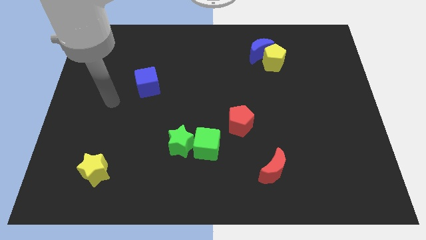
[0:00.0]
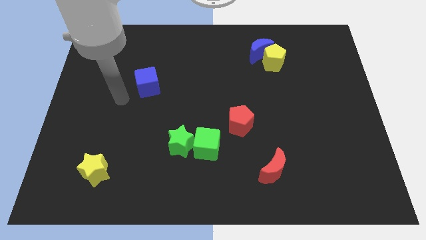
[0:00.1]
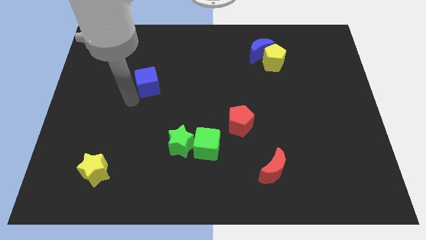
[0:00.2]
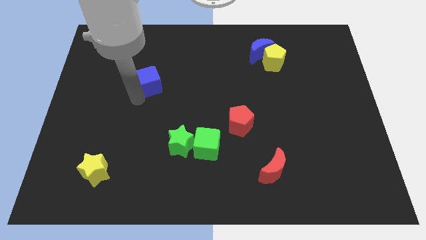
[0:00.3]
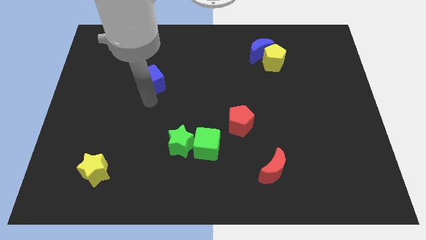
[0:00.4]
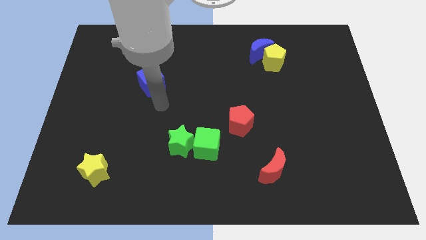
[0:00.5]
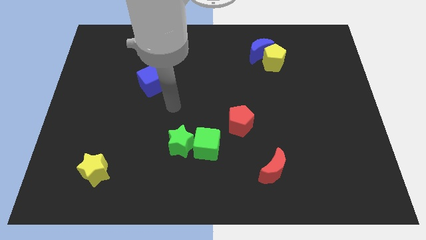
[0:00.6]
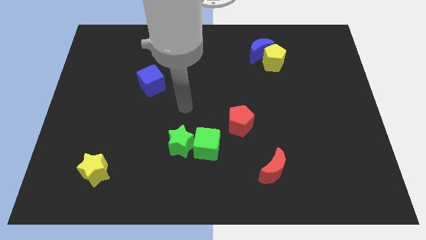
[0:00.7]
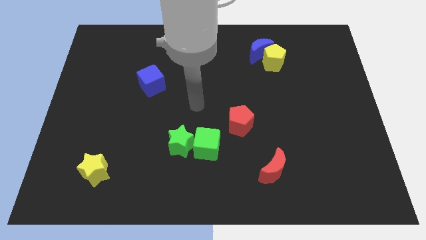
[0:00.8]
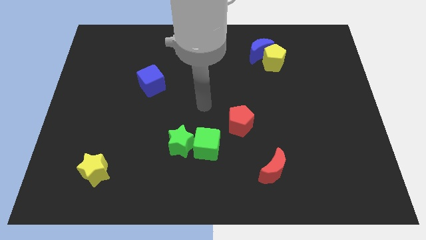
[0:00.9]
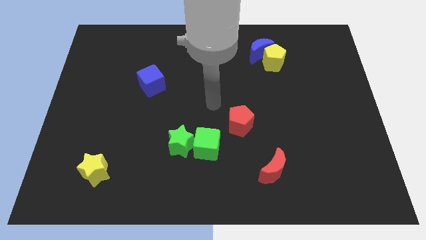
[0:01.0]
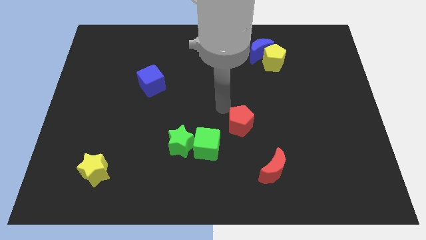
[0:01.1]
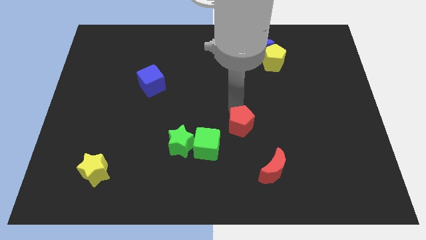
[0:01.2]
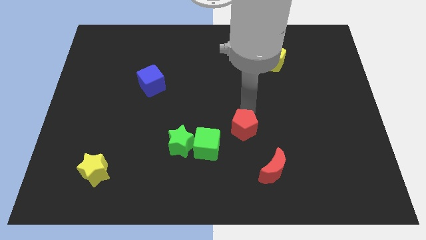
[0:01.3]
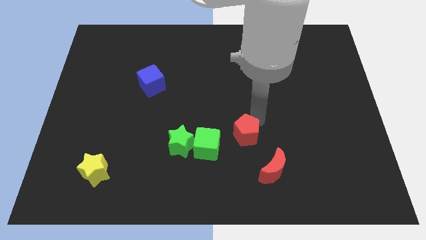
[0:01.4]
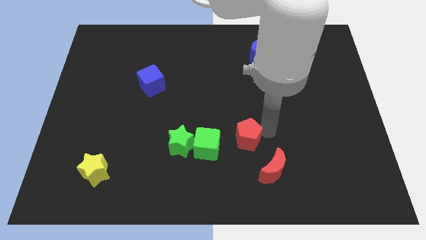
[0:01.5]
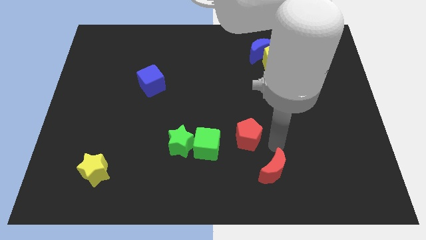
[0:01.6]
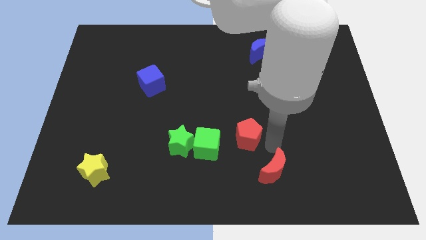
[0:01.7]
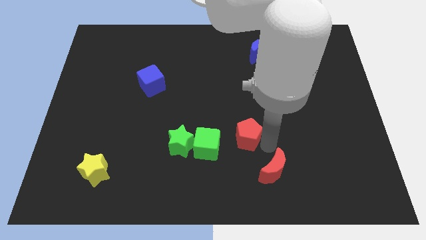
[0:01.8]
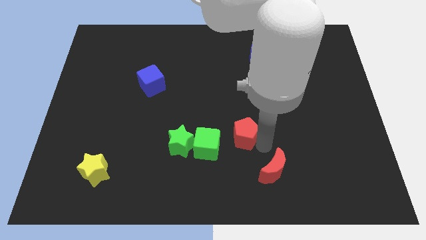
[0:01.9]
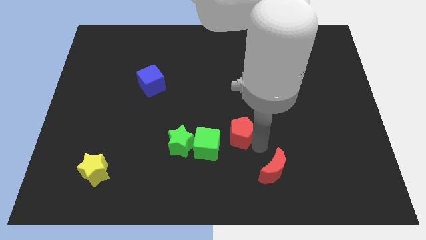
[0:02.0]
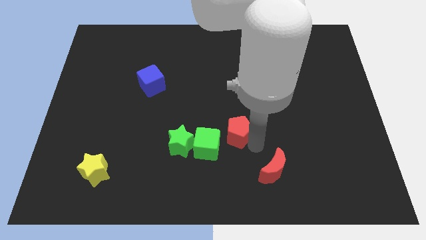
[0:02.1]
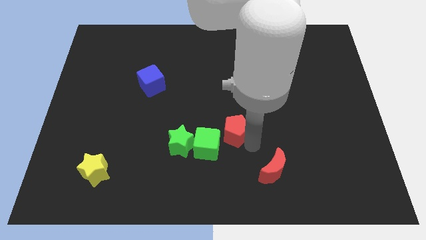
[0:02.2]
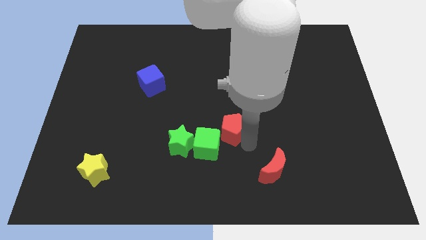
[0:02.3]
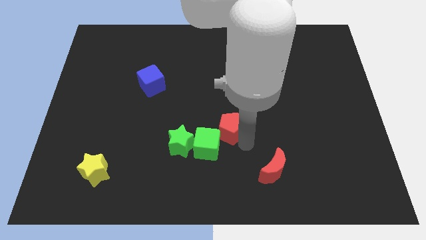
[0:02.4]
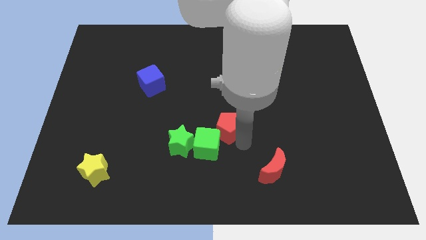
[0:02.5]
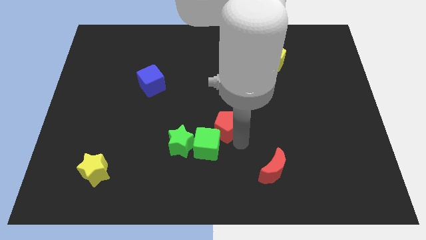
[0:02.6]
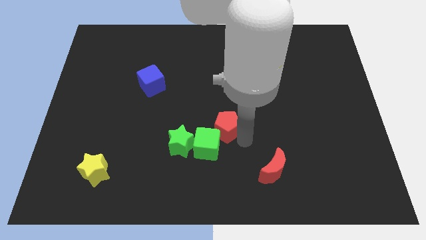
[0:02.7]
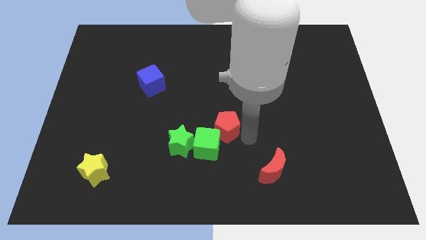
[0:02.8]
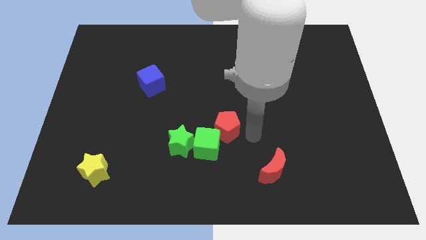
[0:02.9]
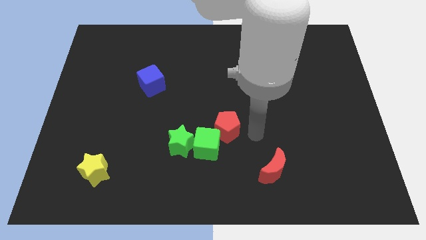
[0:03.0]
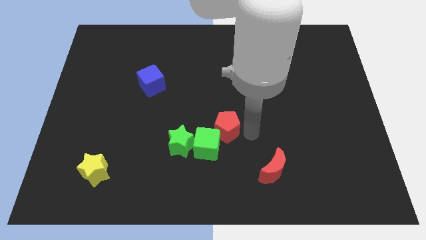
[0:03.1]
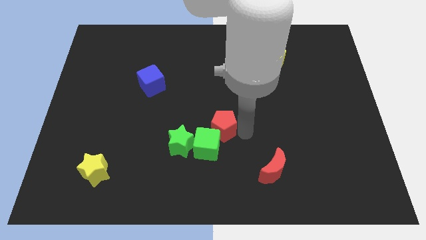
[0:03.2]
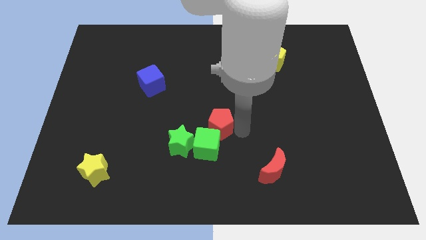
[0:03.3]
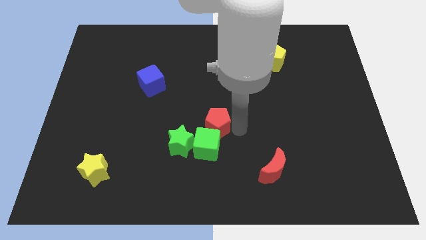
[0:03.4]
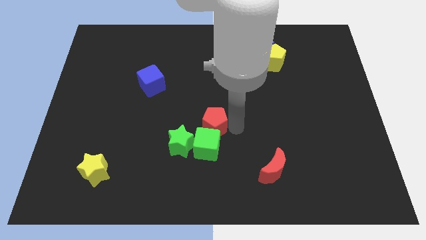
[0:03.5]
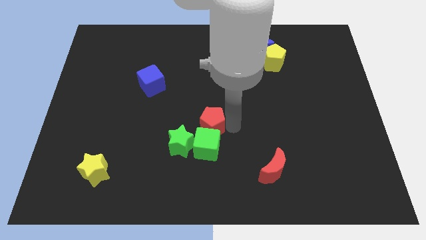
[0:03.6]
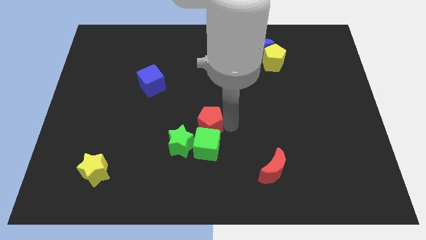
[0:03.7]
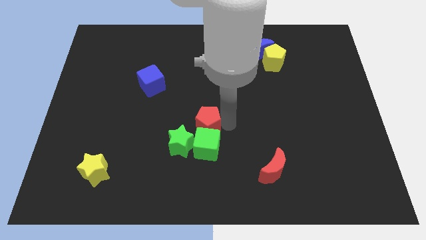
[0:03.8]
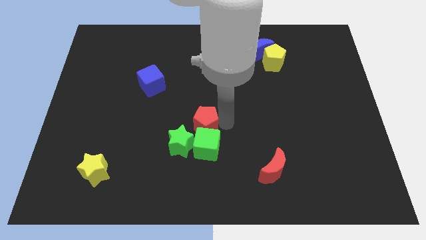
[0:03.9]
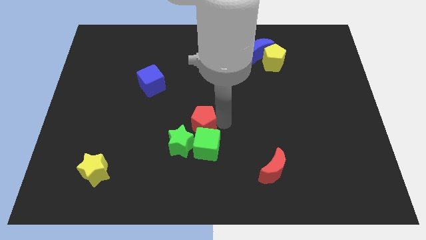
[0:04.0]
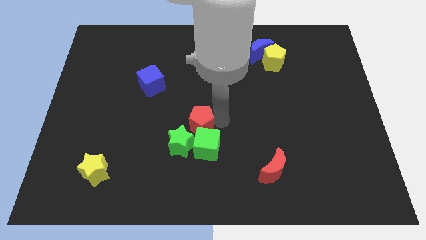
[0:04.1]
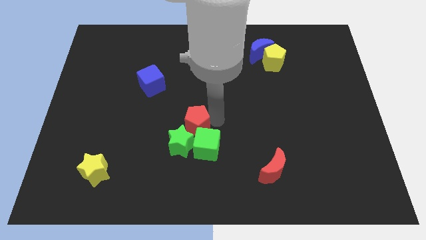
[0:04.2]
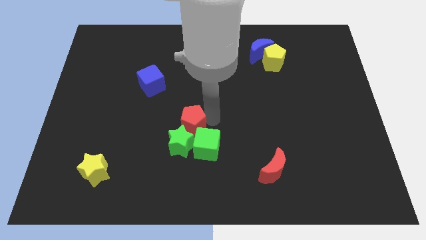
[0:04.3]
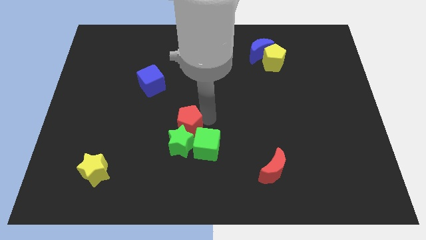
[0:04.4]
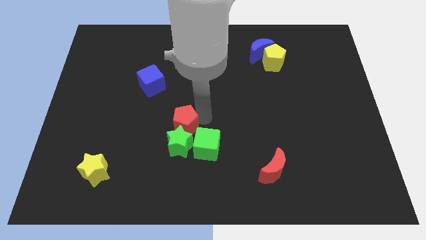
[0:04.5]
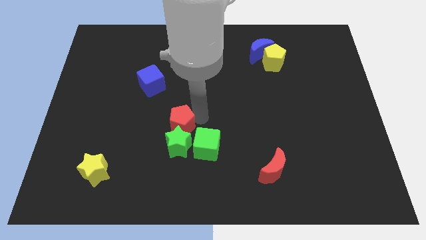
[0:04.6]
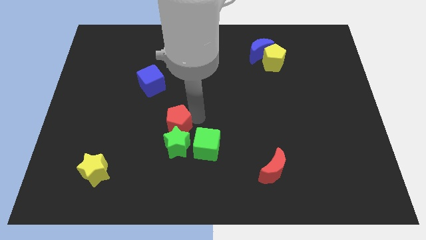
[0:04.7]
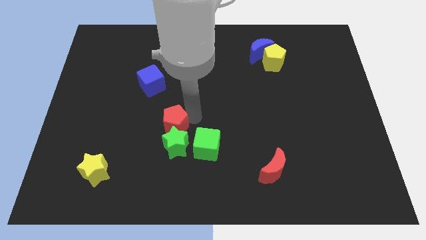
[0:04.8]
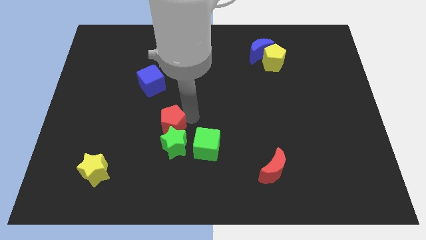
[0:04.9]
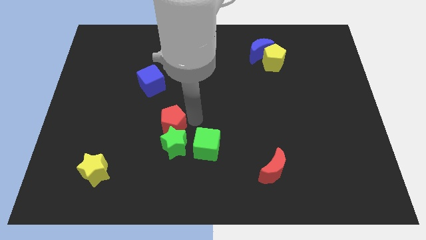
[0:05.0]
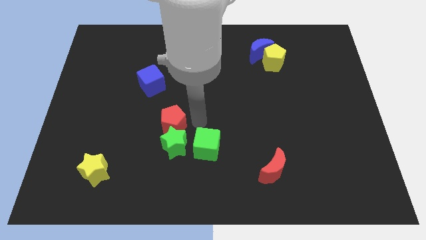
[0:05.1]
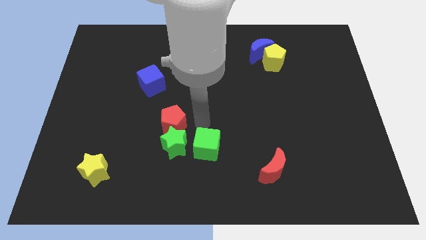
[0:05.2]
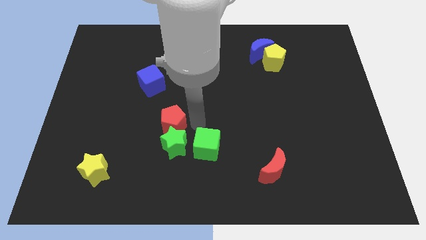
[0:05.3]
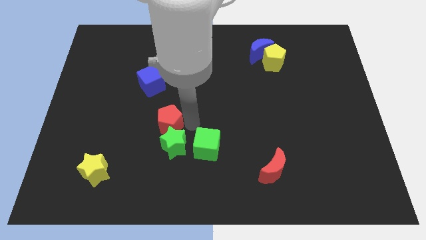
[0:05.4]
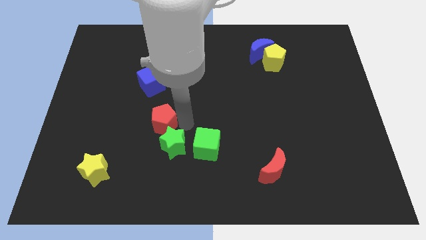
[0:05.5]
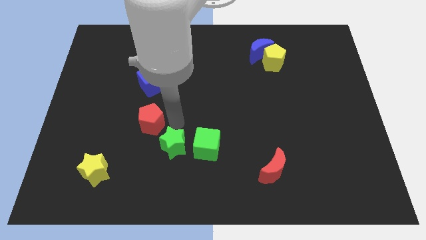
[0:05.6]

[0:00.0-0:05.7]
move the red pentagon to the left

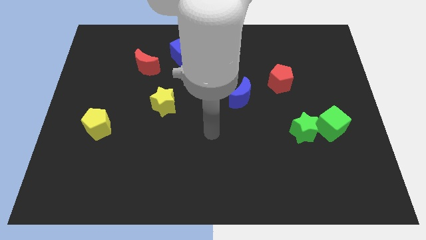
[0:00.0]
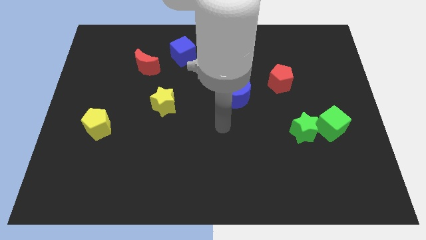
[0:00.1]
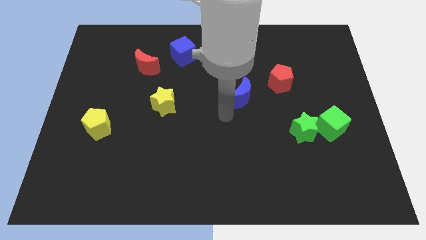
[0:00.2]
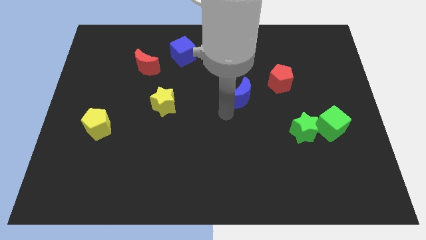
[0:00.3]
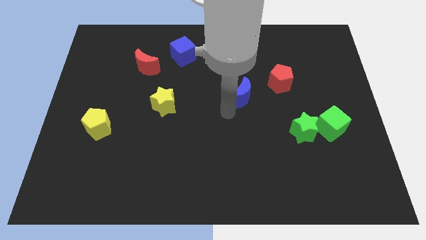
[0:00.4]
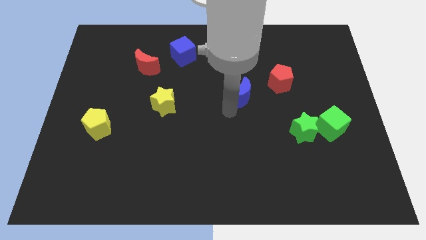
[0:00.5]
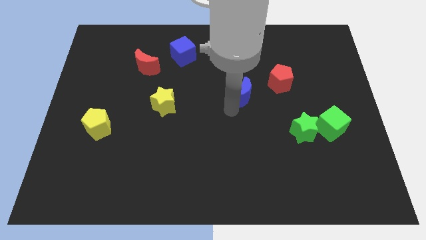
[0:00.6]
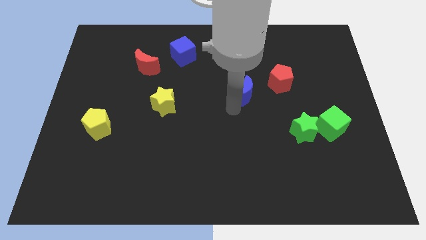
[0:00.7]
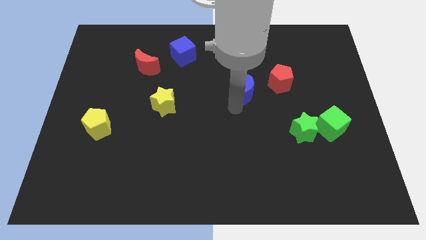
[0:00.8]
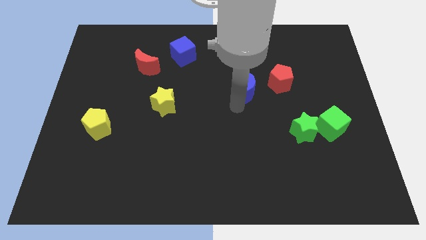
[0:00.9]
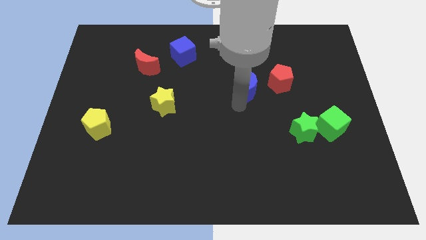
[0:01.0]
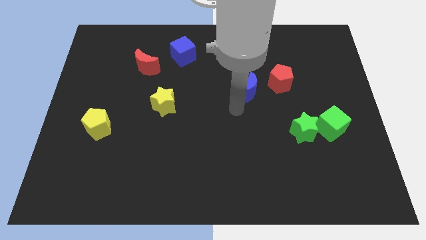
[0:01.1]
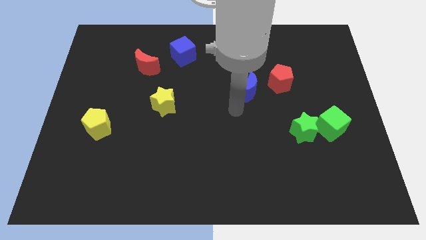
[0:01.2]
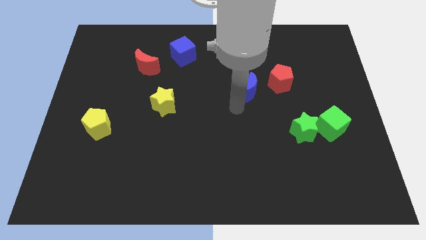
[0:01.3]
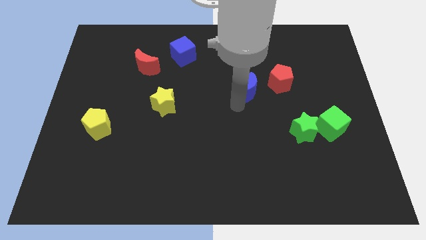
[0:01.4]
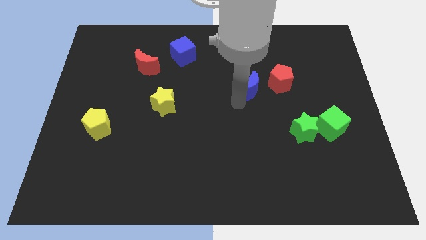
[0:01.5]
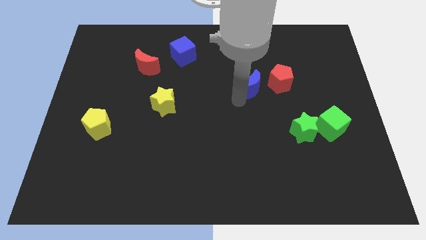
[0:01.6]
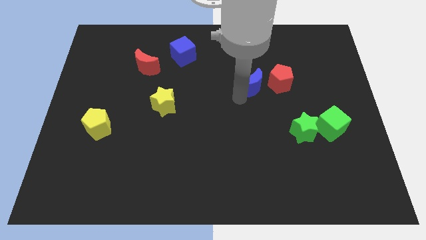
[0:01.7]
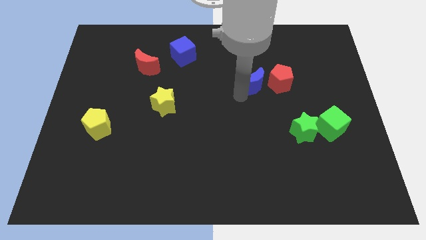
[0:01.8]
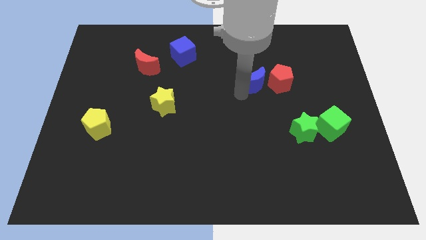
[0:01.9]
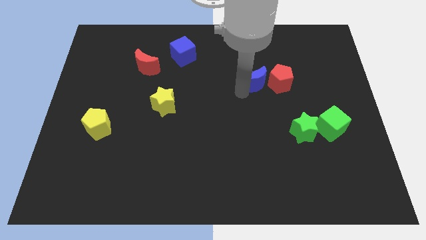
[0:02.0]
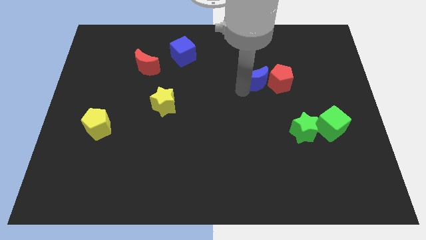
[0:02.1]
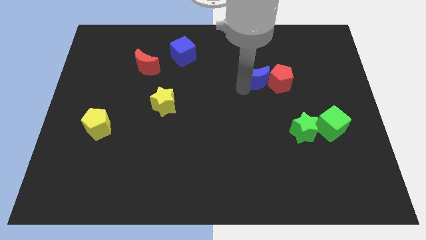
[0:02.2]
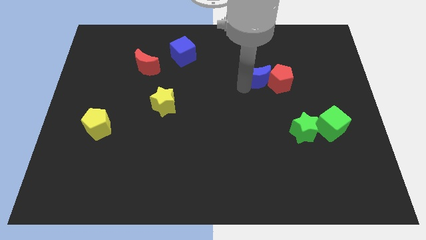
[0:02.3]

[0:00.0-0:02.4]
move the blue moon upwards and right diagonally a little bit
